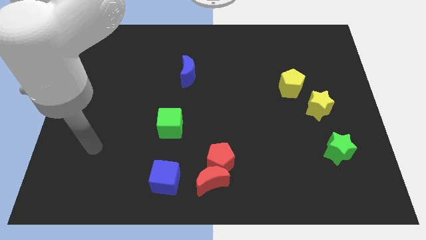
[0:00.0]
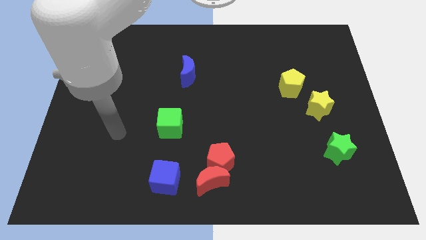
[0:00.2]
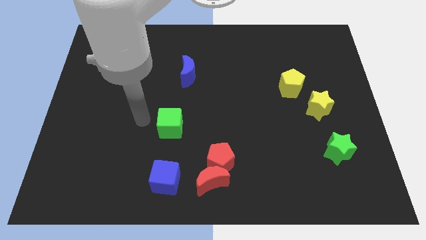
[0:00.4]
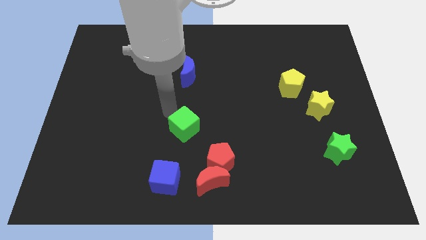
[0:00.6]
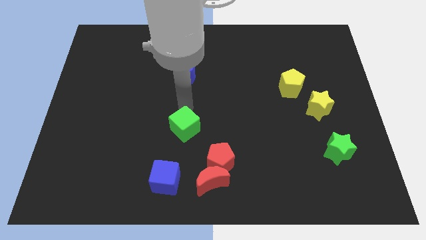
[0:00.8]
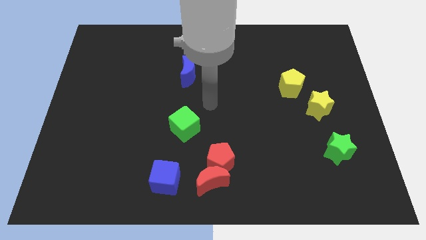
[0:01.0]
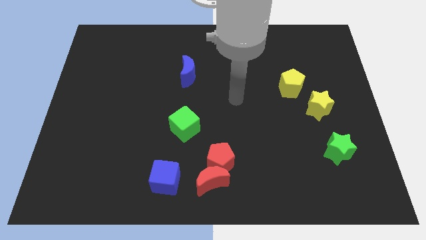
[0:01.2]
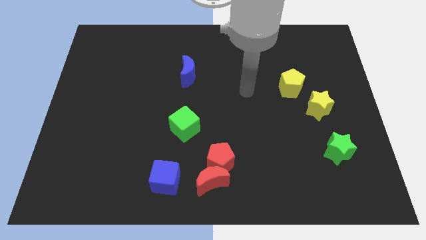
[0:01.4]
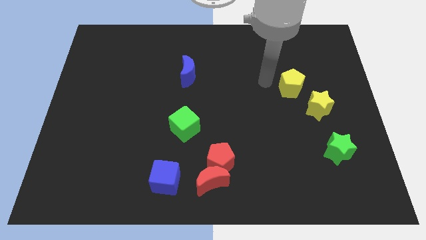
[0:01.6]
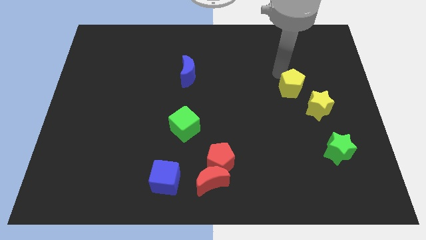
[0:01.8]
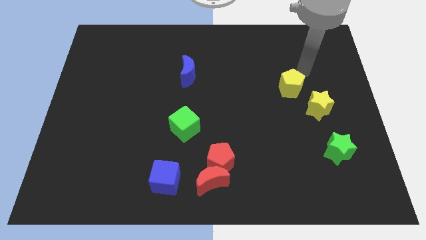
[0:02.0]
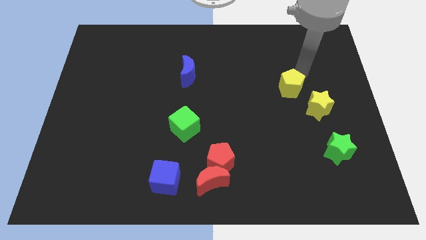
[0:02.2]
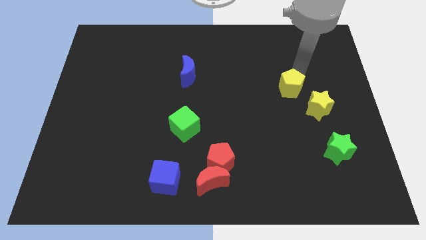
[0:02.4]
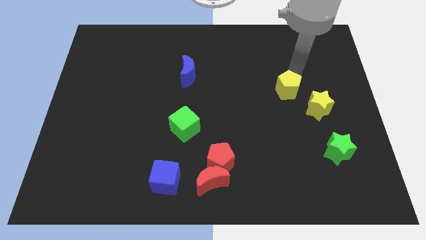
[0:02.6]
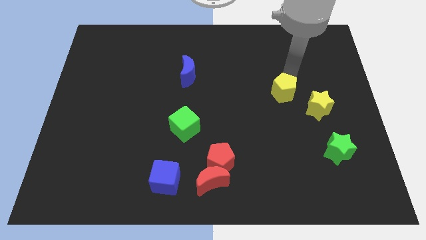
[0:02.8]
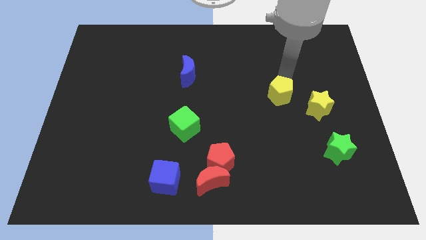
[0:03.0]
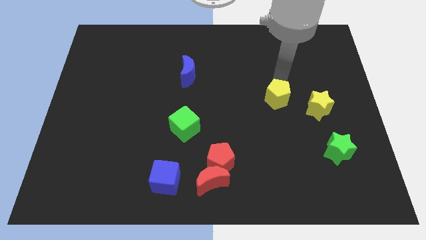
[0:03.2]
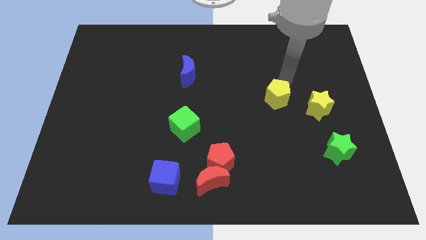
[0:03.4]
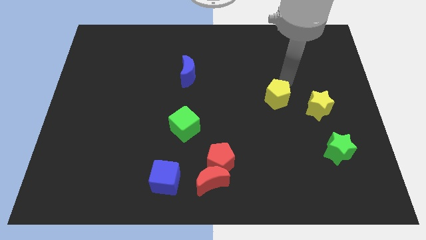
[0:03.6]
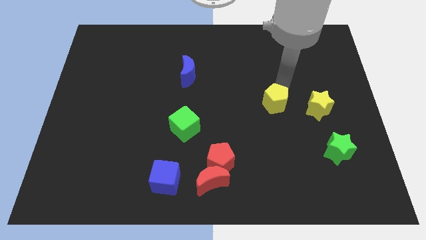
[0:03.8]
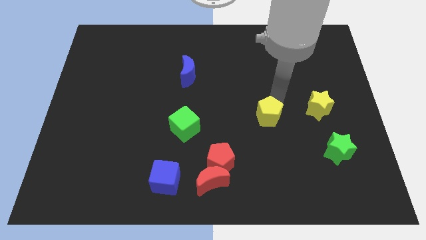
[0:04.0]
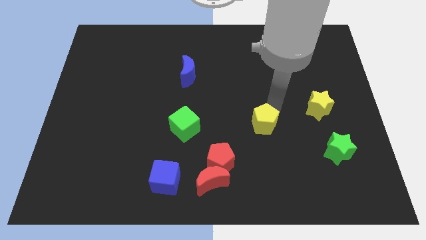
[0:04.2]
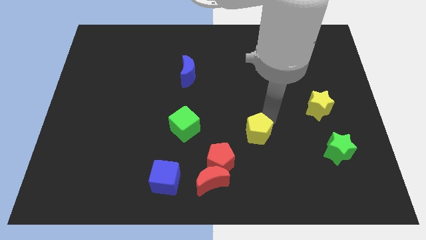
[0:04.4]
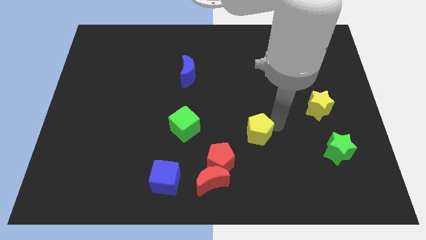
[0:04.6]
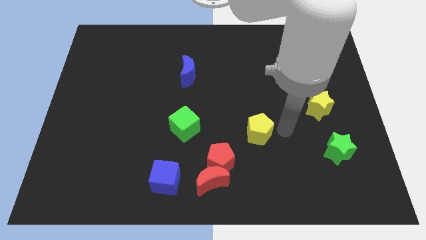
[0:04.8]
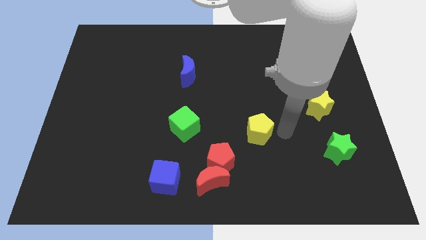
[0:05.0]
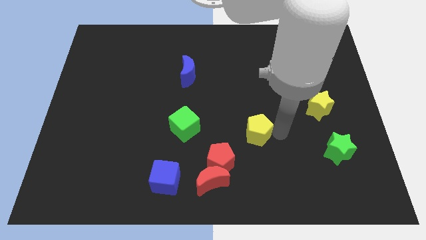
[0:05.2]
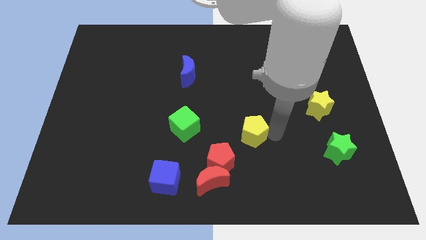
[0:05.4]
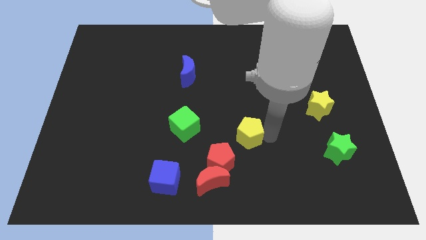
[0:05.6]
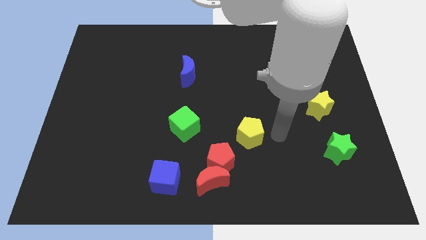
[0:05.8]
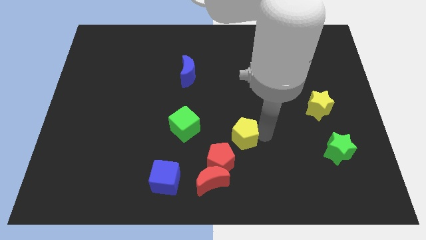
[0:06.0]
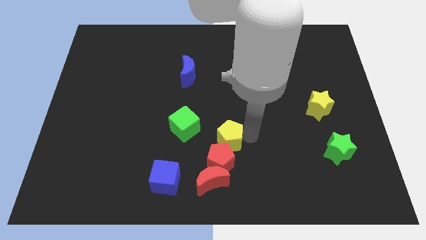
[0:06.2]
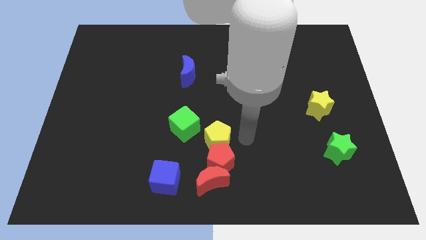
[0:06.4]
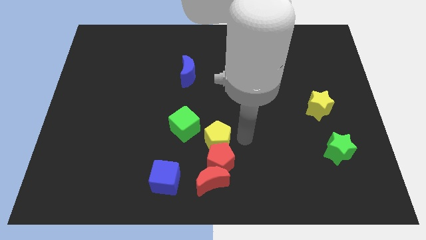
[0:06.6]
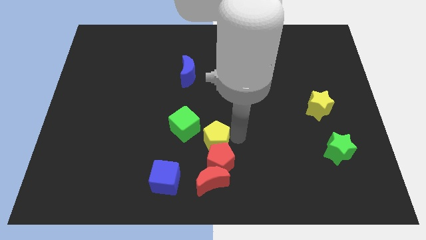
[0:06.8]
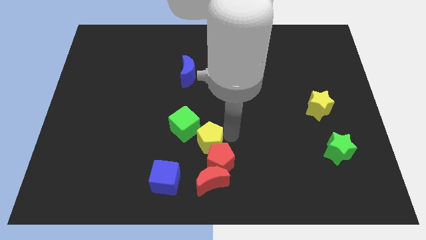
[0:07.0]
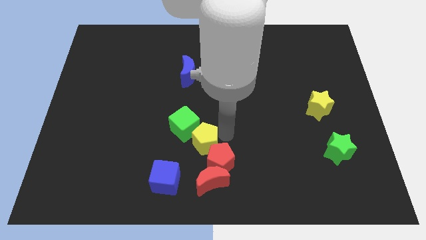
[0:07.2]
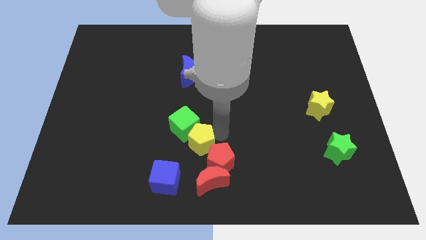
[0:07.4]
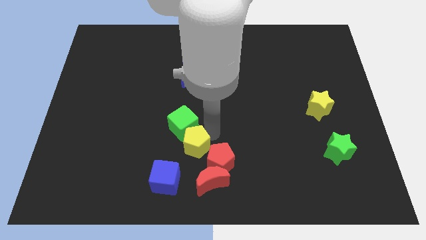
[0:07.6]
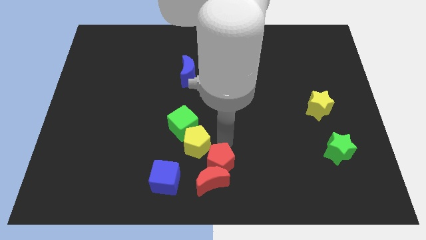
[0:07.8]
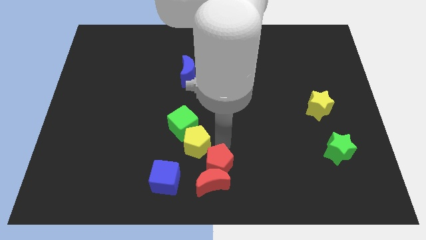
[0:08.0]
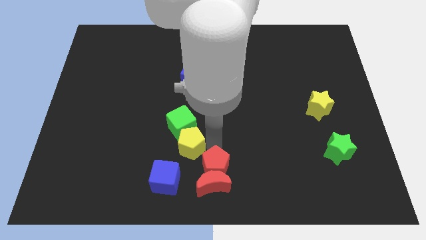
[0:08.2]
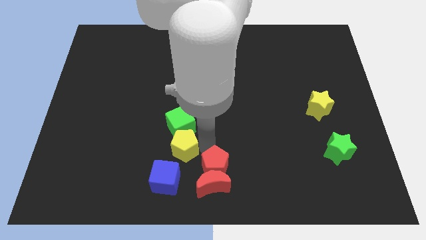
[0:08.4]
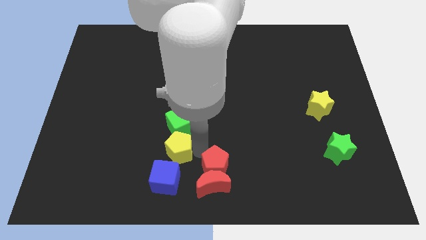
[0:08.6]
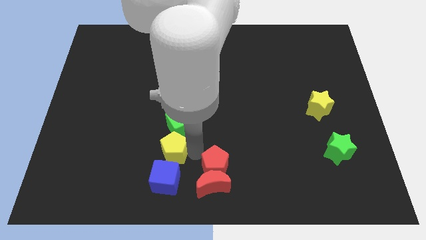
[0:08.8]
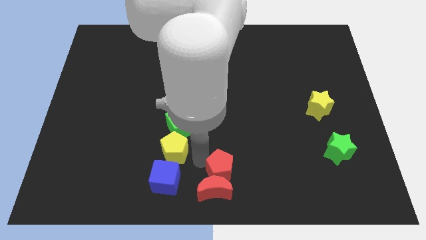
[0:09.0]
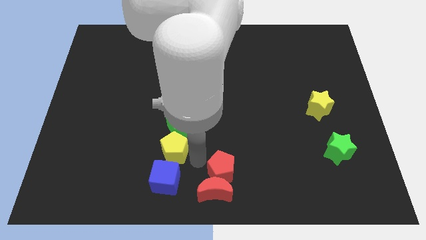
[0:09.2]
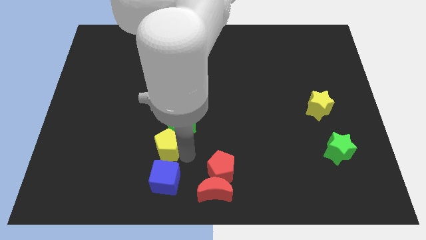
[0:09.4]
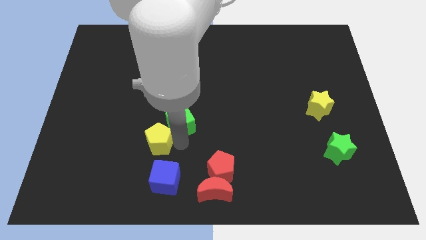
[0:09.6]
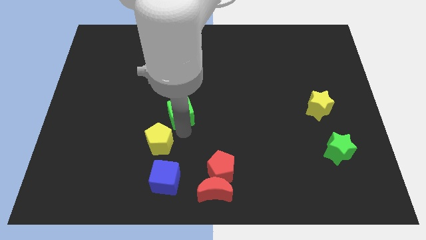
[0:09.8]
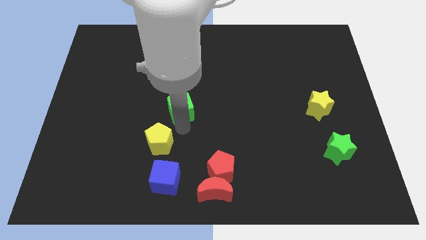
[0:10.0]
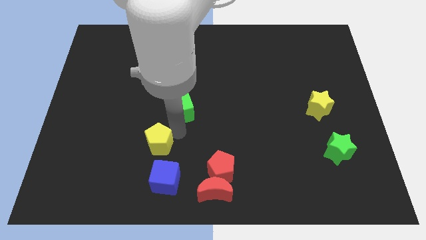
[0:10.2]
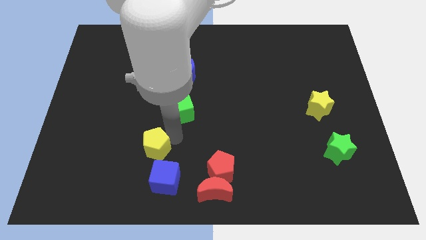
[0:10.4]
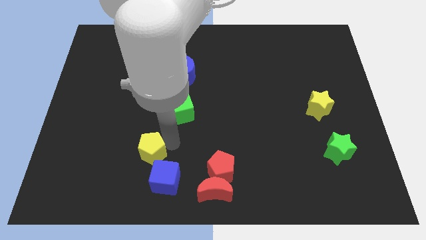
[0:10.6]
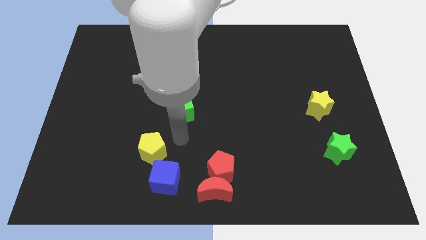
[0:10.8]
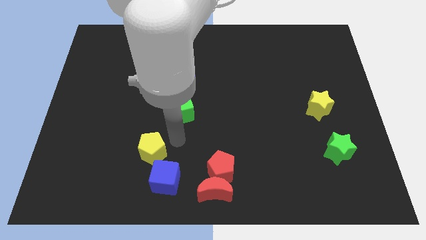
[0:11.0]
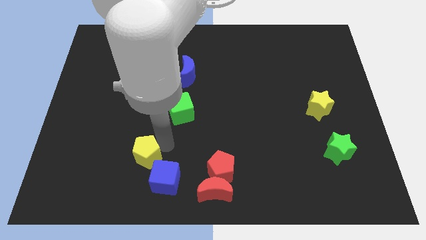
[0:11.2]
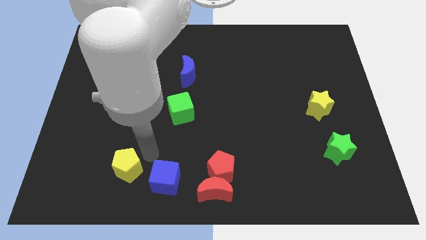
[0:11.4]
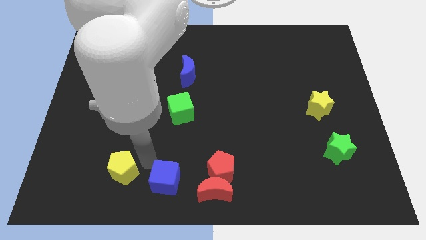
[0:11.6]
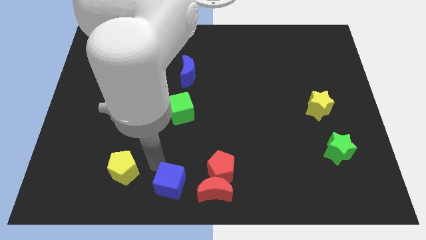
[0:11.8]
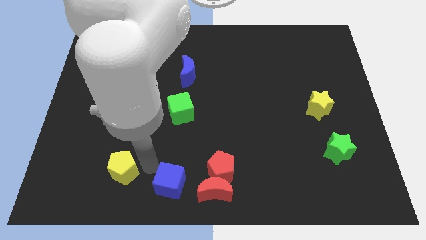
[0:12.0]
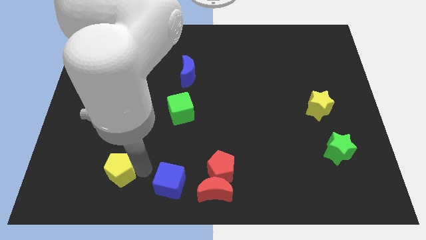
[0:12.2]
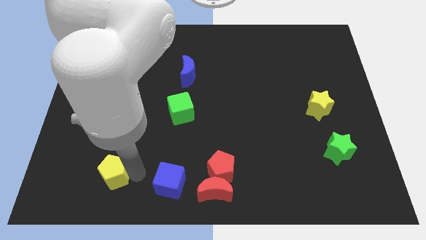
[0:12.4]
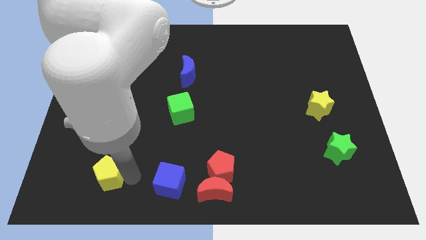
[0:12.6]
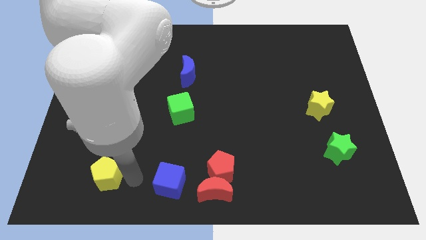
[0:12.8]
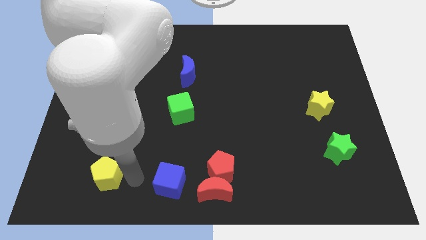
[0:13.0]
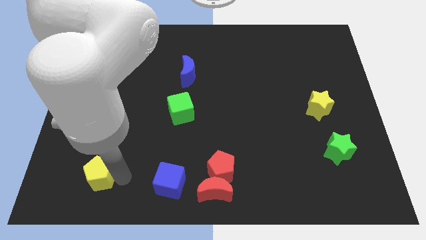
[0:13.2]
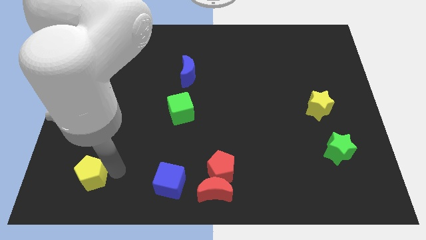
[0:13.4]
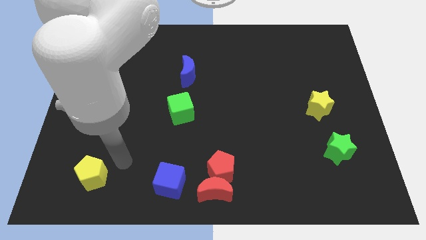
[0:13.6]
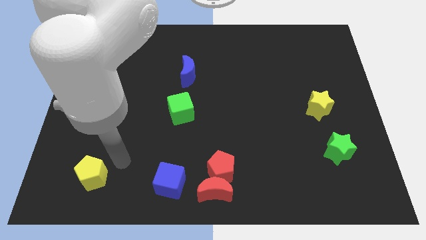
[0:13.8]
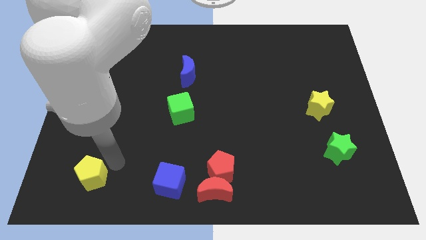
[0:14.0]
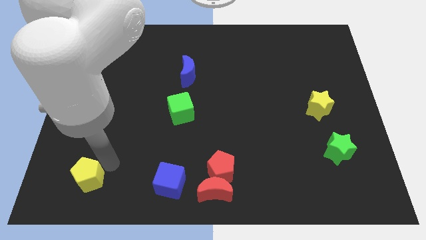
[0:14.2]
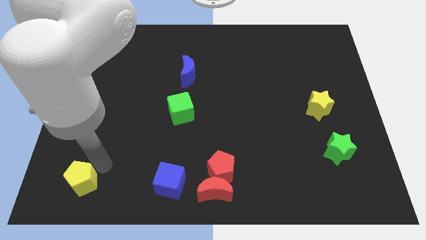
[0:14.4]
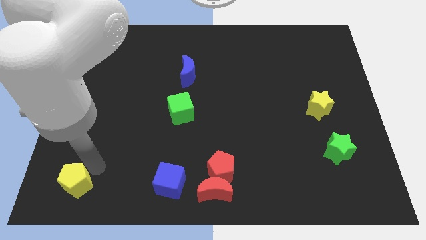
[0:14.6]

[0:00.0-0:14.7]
push the yellow pentagon to the lower left corner
